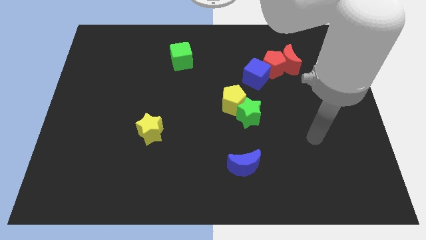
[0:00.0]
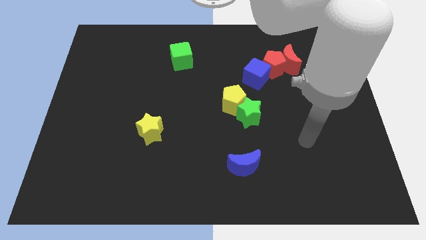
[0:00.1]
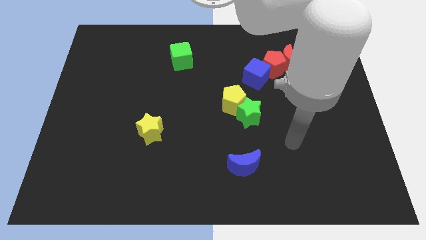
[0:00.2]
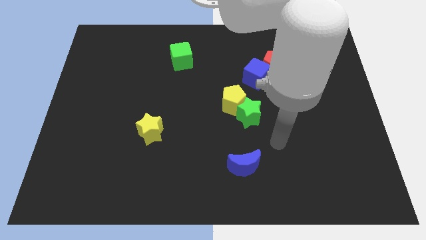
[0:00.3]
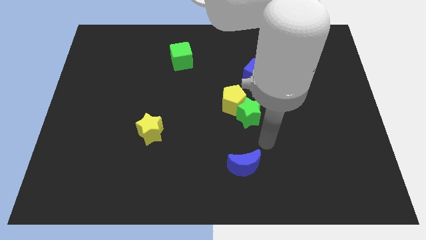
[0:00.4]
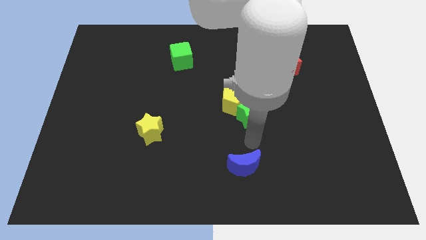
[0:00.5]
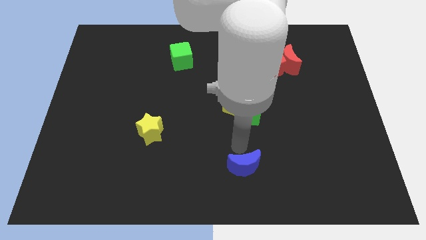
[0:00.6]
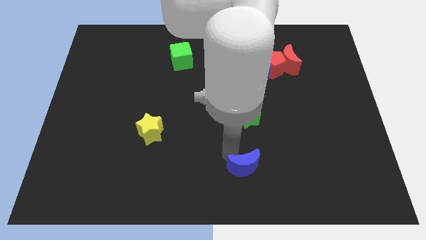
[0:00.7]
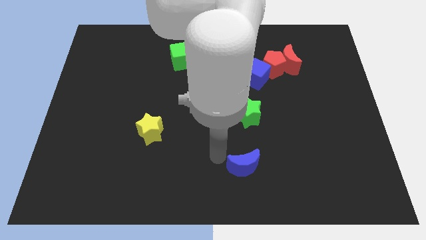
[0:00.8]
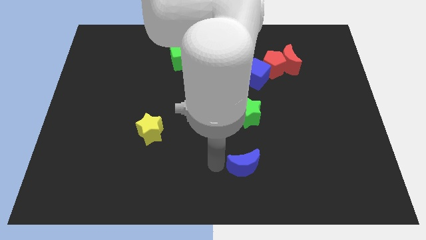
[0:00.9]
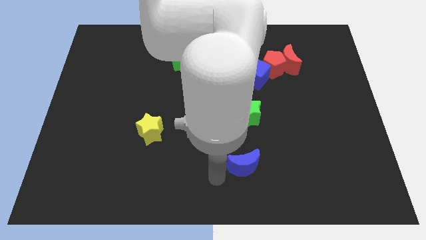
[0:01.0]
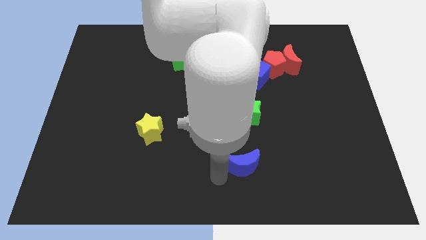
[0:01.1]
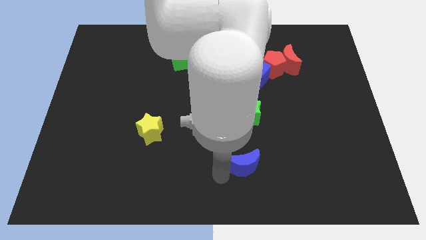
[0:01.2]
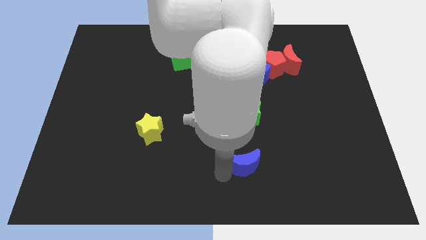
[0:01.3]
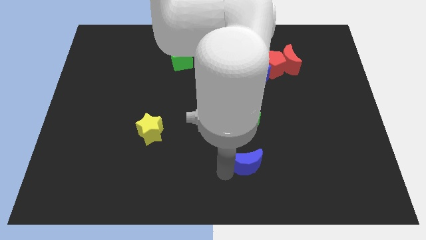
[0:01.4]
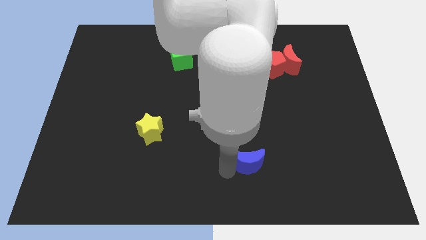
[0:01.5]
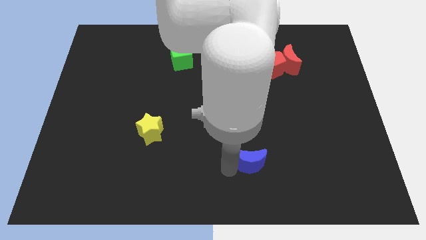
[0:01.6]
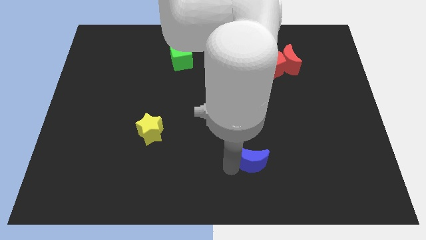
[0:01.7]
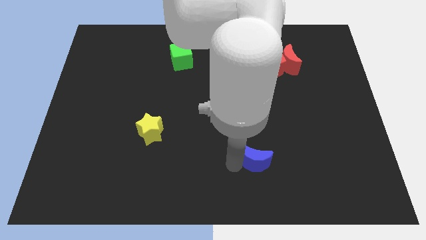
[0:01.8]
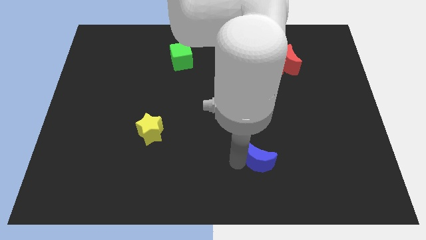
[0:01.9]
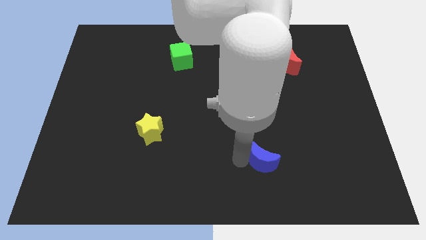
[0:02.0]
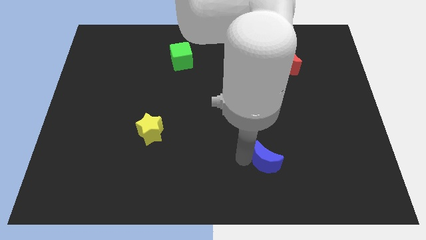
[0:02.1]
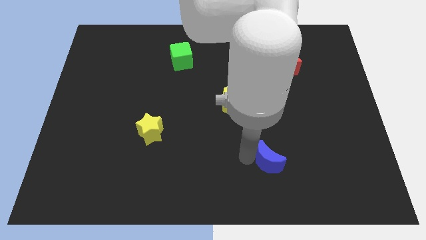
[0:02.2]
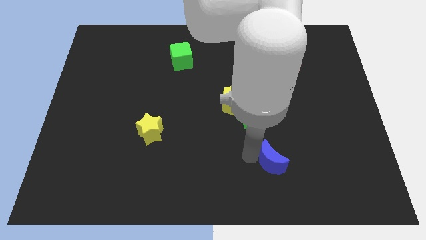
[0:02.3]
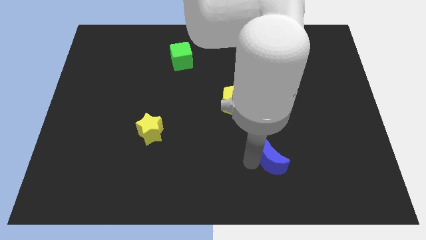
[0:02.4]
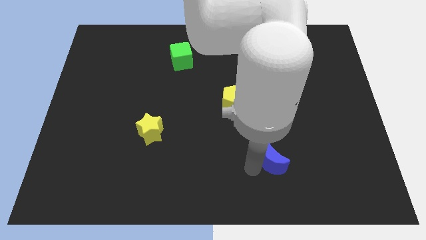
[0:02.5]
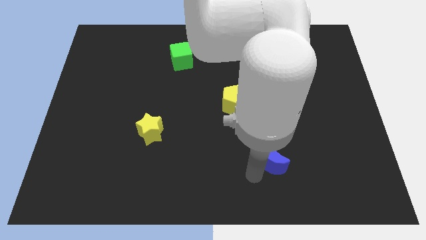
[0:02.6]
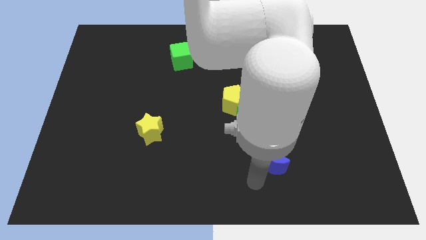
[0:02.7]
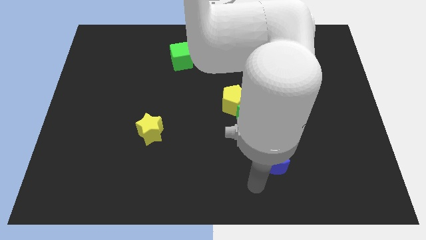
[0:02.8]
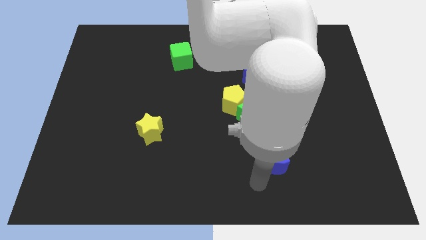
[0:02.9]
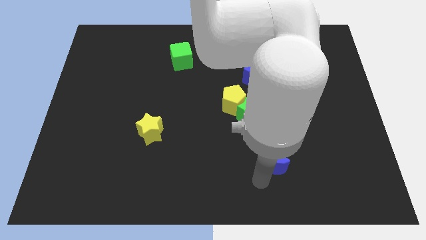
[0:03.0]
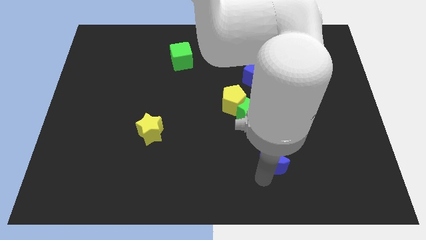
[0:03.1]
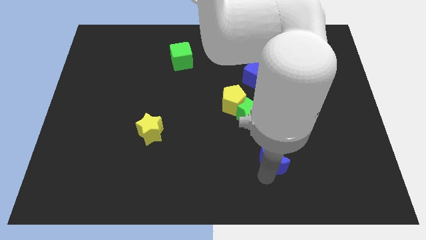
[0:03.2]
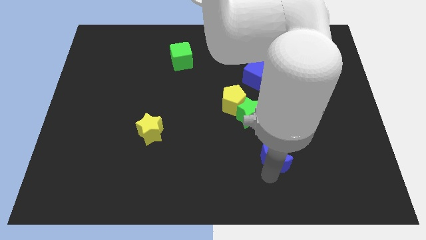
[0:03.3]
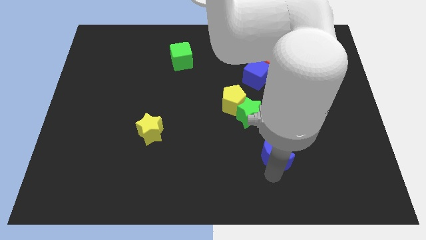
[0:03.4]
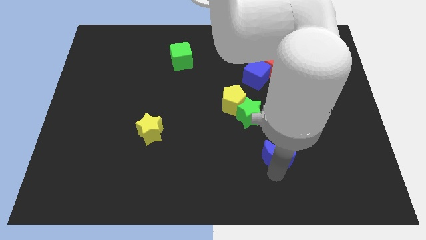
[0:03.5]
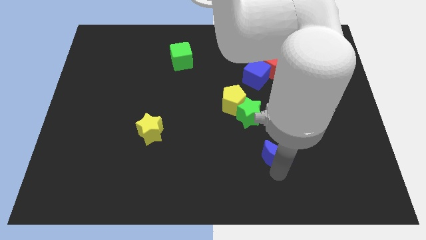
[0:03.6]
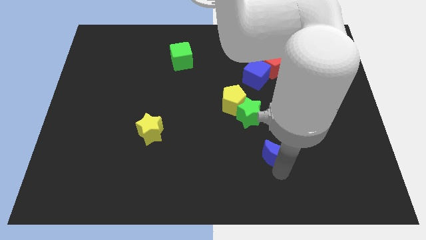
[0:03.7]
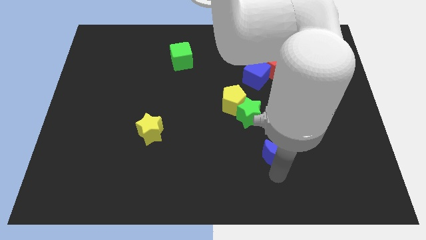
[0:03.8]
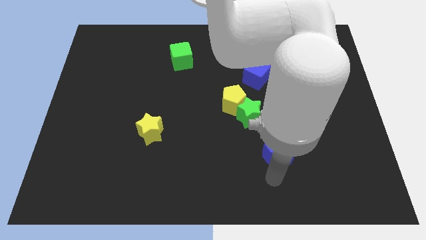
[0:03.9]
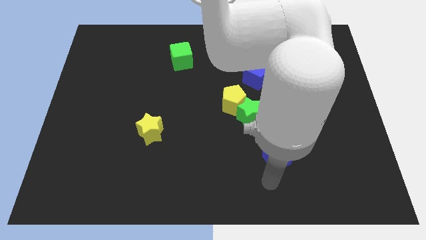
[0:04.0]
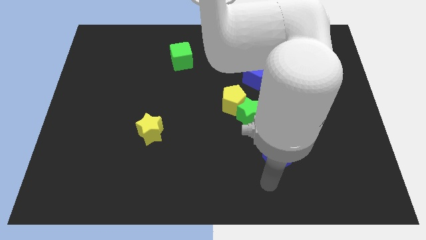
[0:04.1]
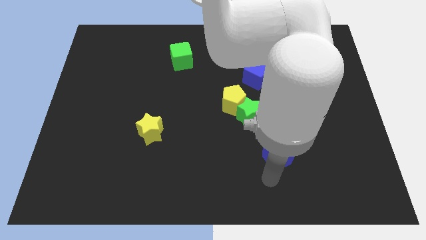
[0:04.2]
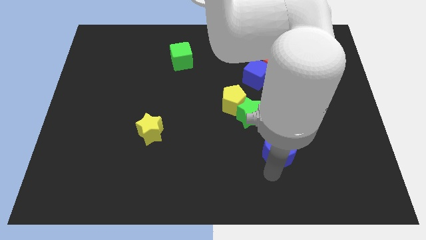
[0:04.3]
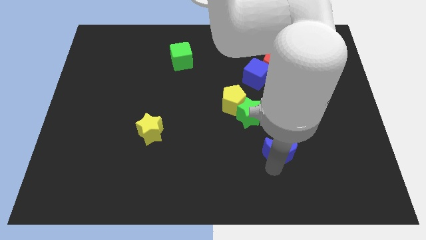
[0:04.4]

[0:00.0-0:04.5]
push the blue moon a bit diagonally up and right

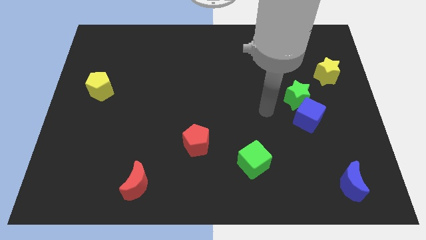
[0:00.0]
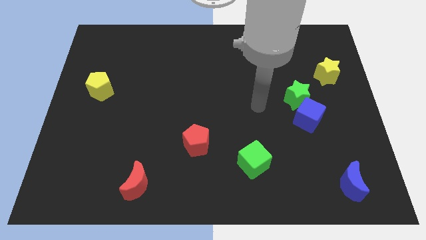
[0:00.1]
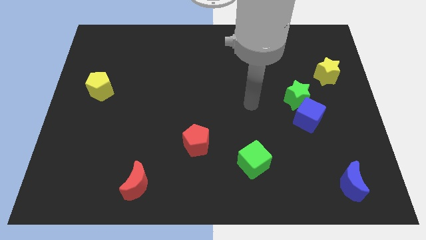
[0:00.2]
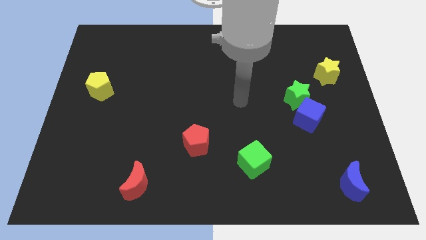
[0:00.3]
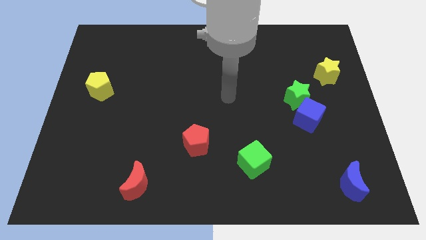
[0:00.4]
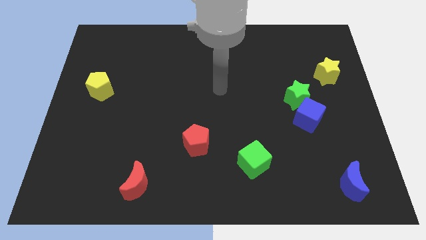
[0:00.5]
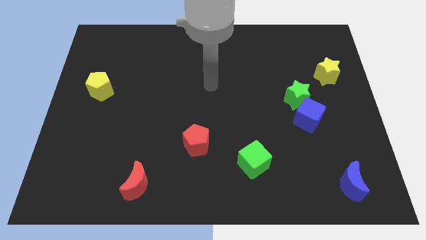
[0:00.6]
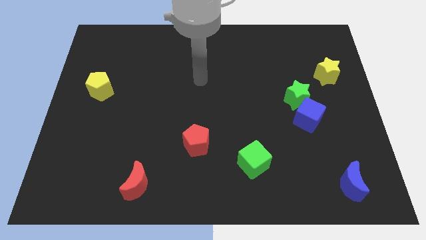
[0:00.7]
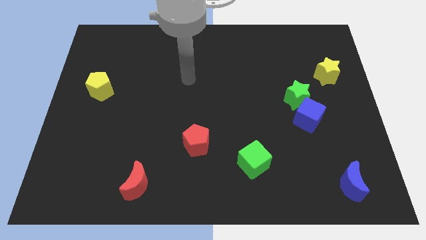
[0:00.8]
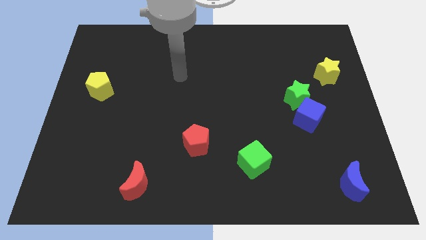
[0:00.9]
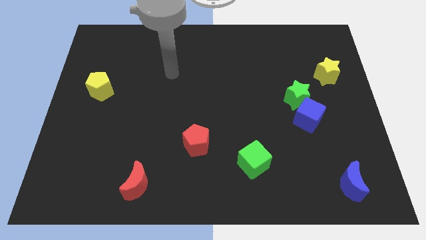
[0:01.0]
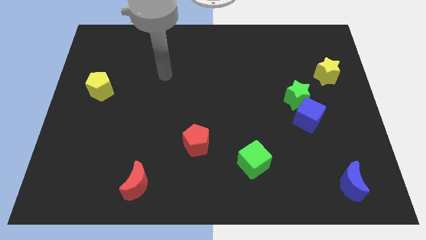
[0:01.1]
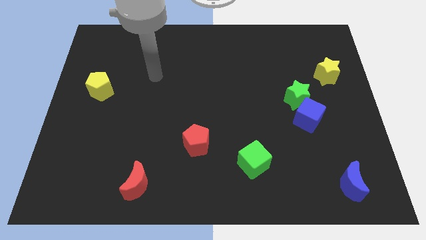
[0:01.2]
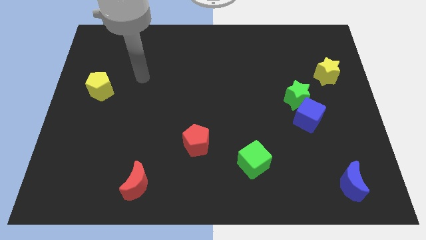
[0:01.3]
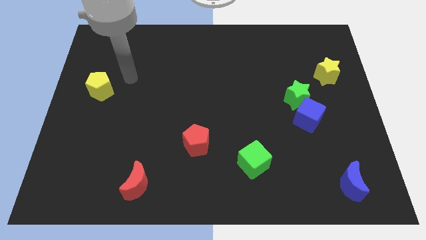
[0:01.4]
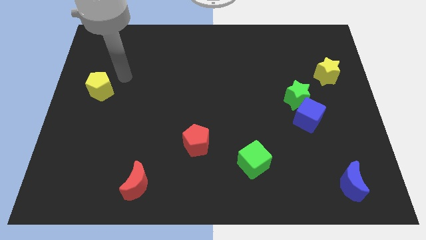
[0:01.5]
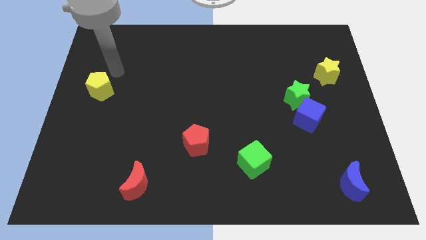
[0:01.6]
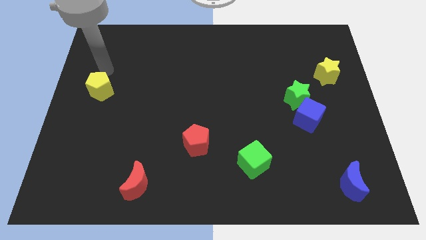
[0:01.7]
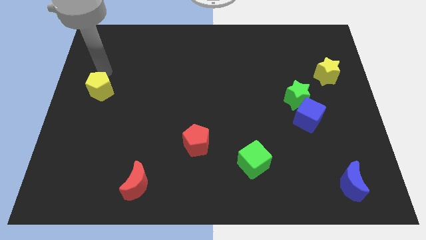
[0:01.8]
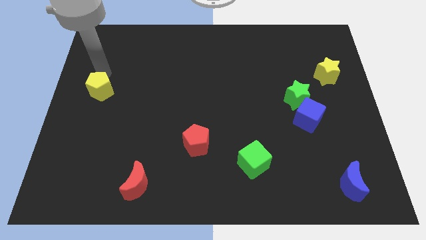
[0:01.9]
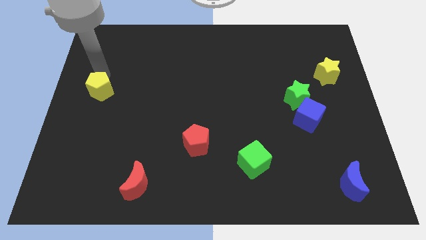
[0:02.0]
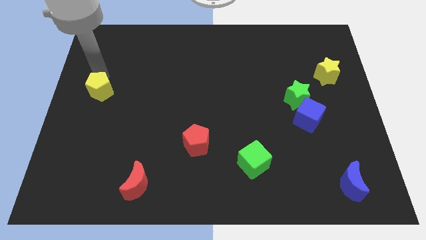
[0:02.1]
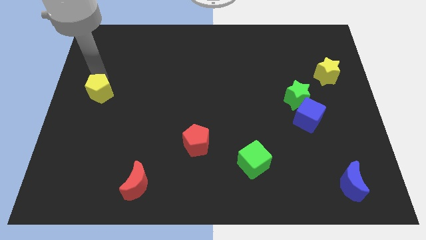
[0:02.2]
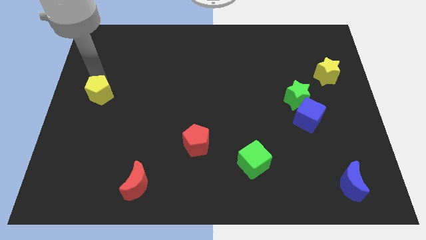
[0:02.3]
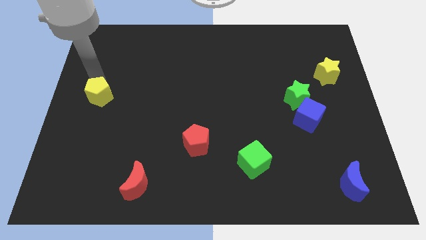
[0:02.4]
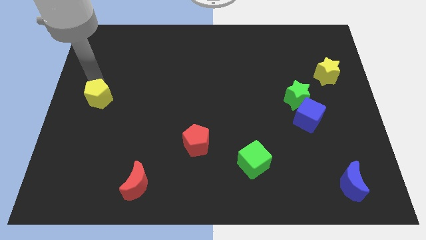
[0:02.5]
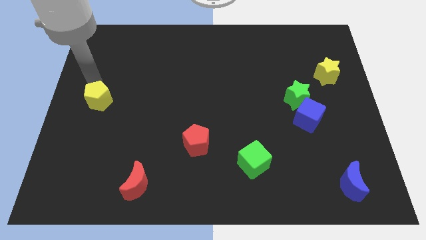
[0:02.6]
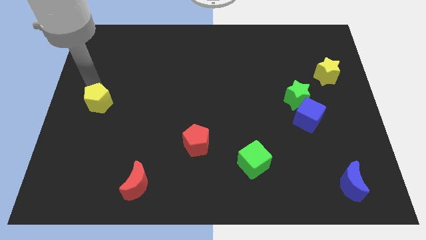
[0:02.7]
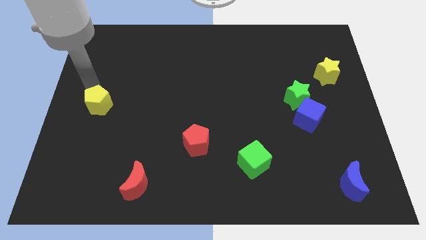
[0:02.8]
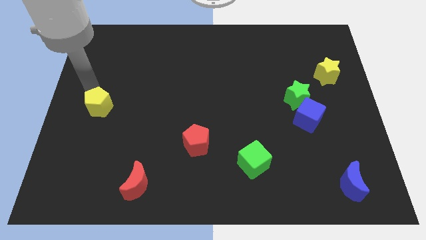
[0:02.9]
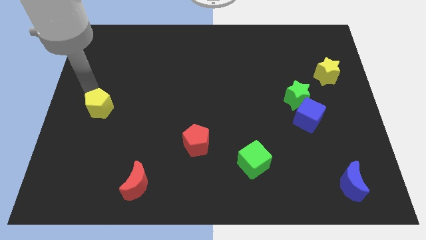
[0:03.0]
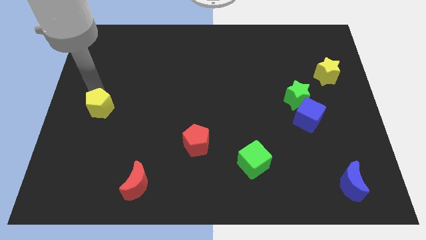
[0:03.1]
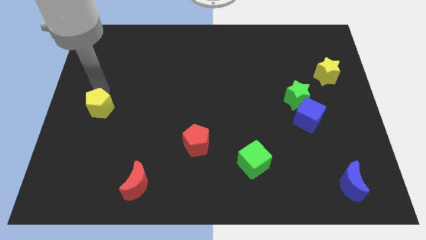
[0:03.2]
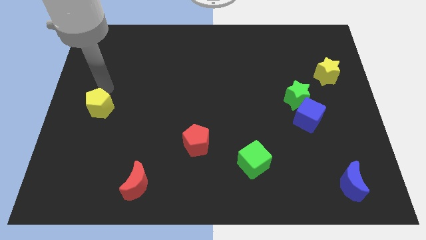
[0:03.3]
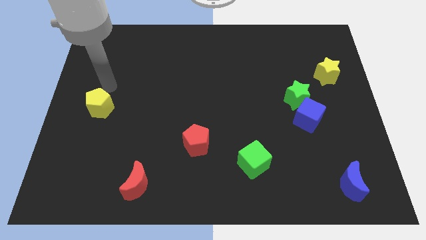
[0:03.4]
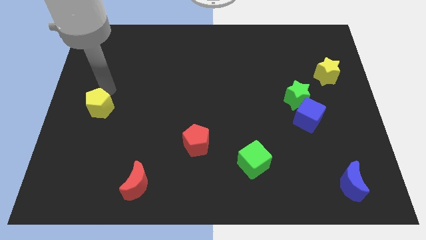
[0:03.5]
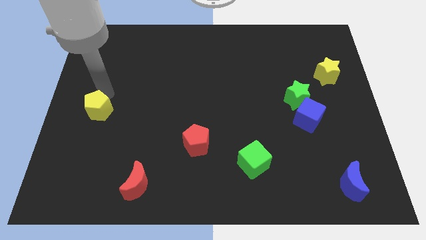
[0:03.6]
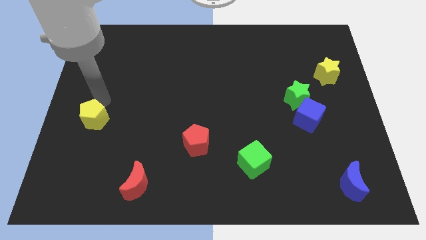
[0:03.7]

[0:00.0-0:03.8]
slightly move the yellow pentagon down
